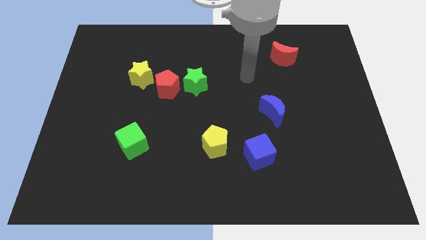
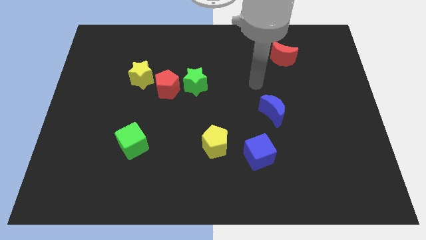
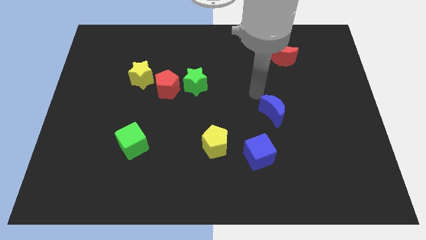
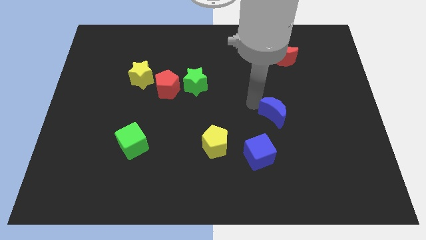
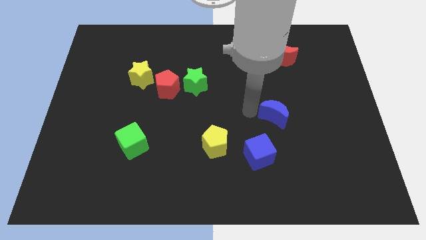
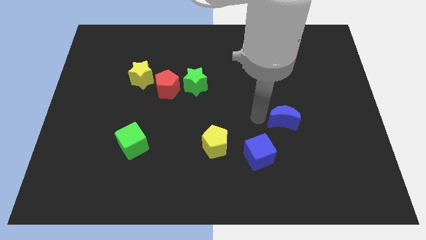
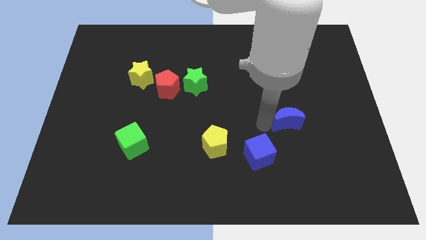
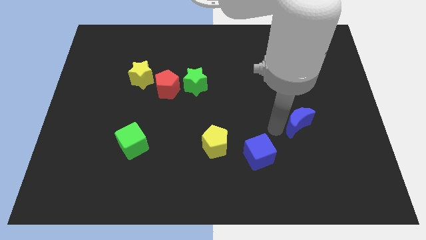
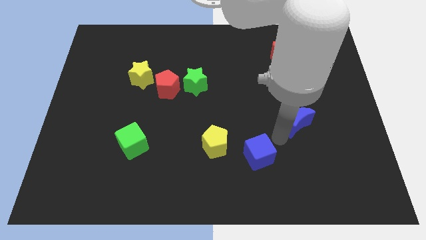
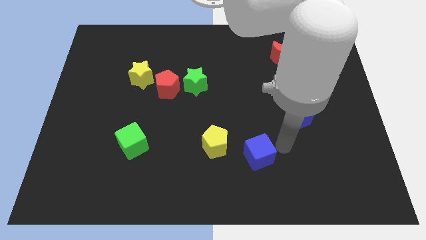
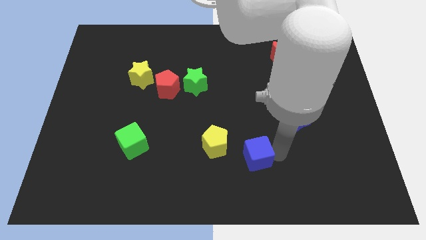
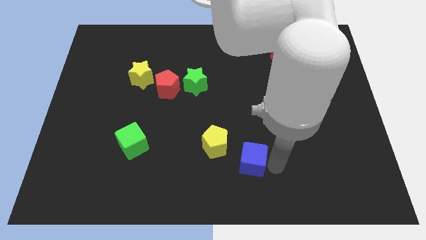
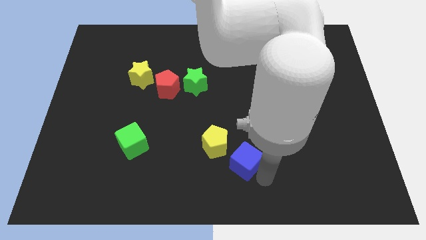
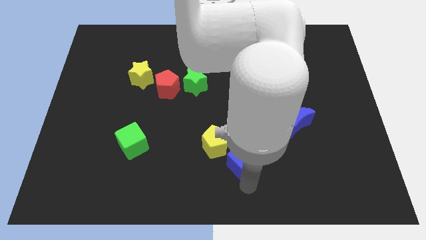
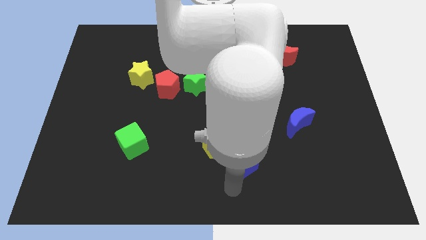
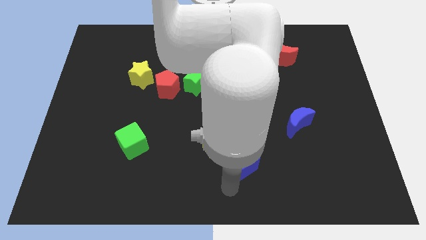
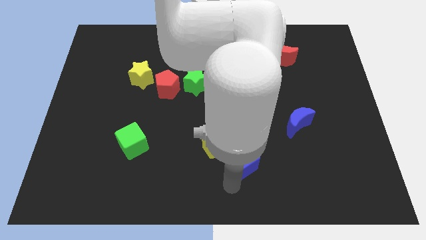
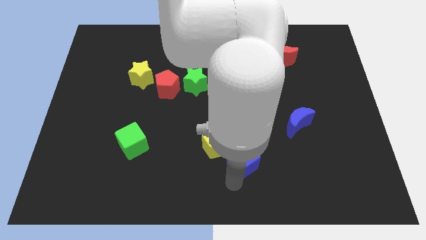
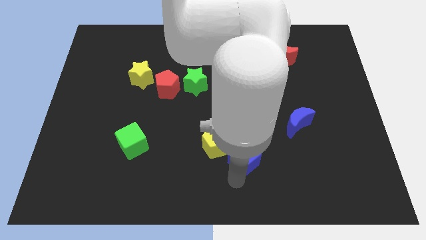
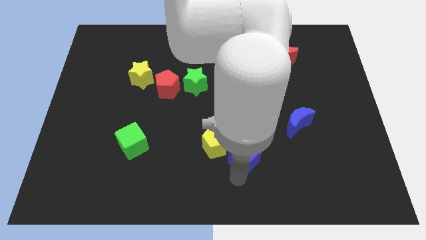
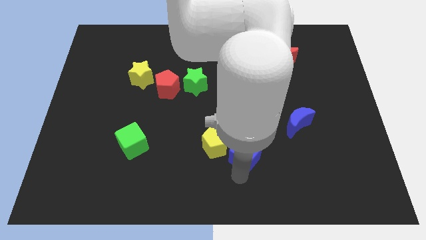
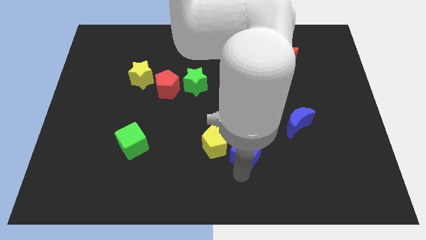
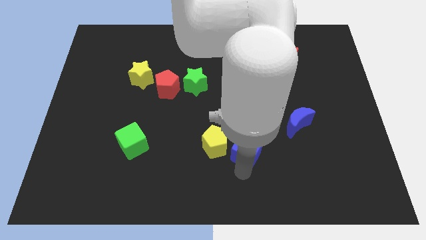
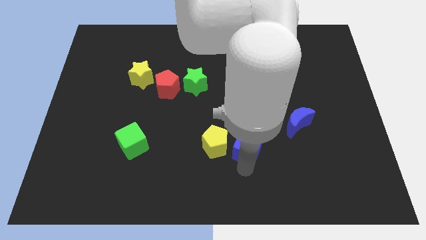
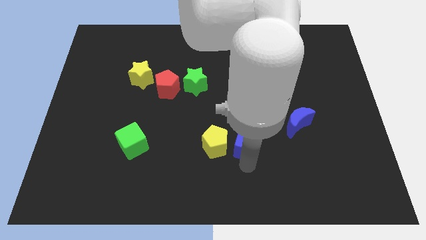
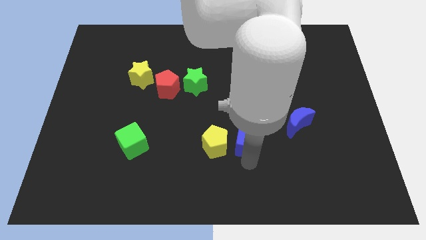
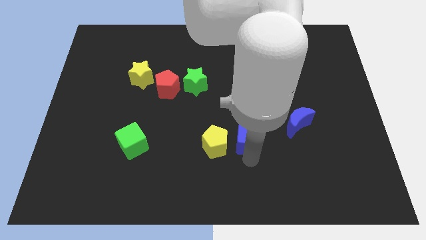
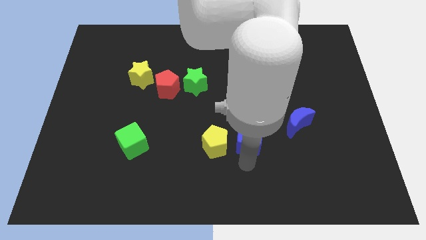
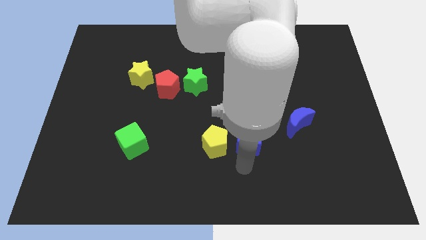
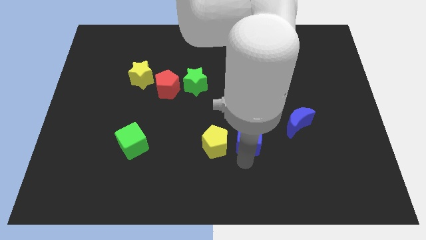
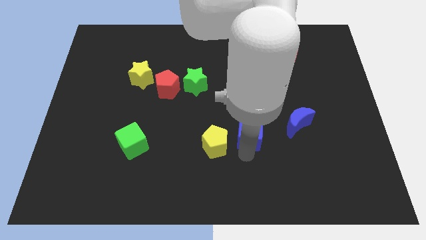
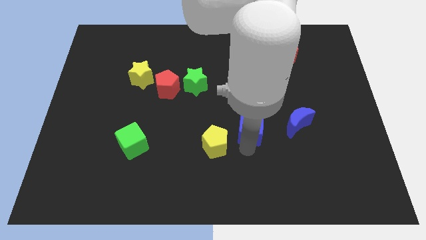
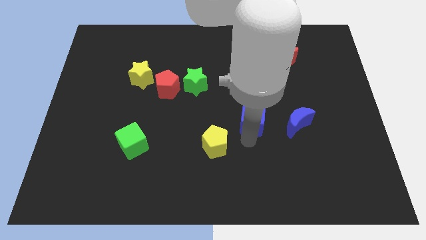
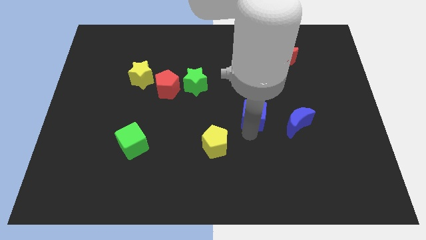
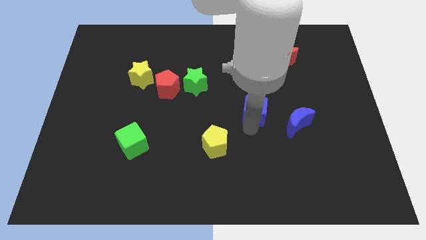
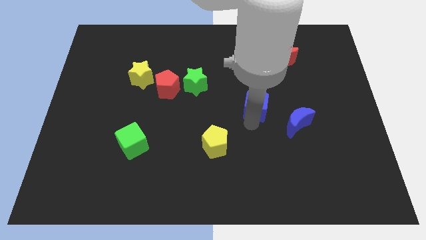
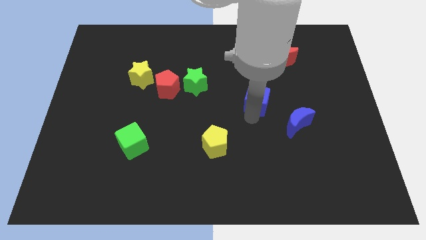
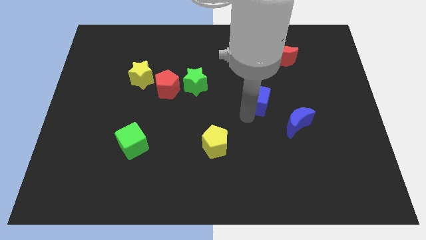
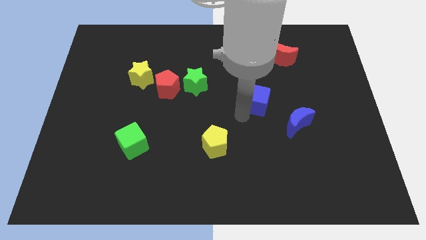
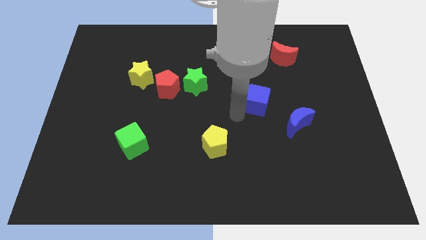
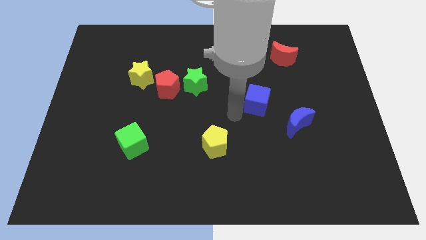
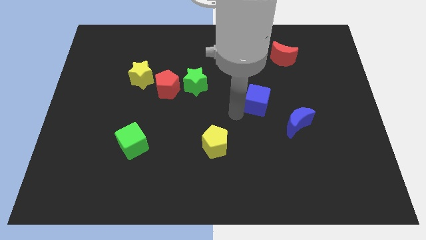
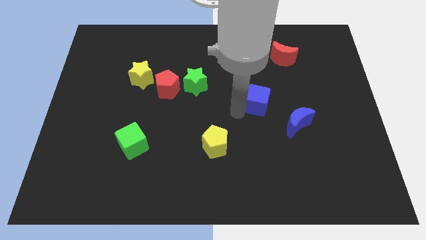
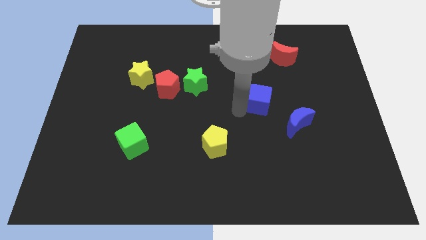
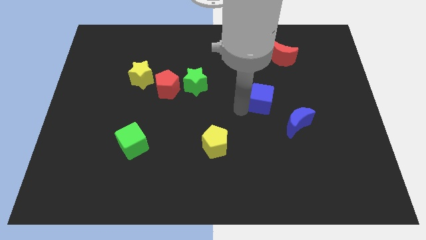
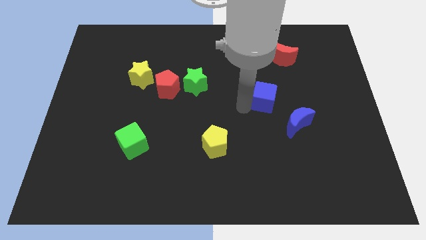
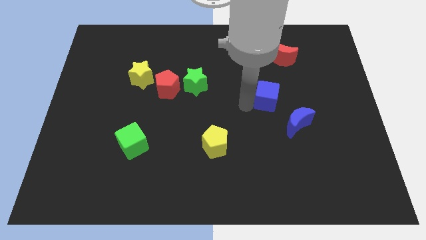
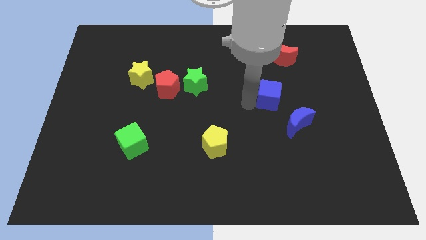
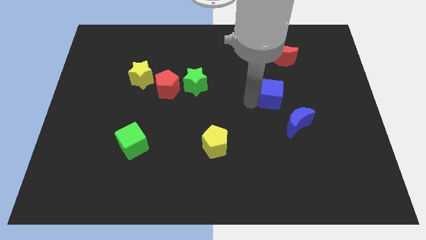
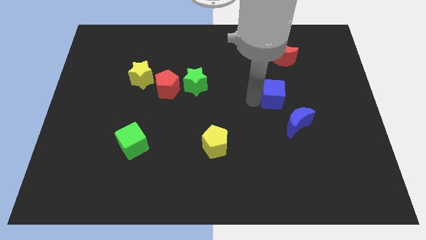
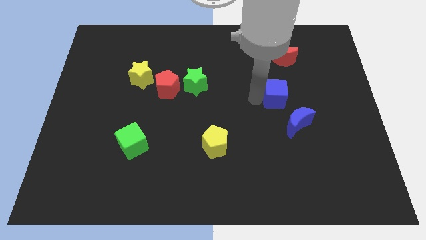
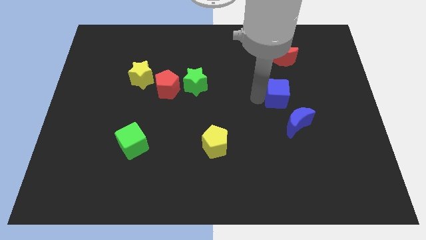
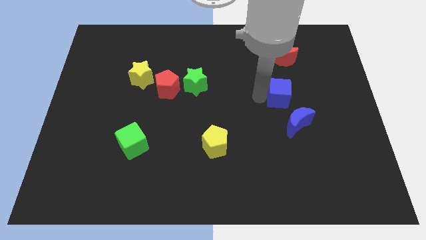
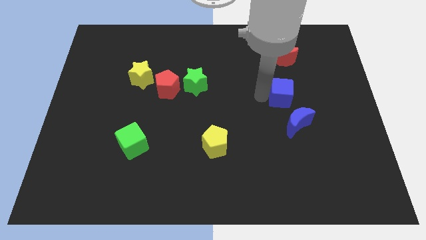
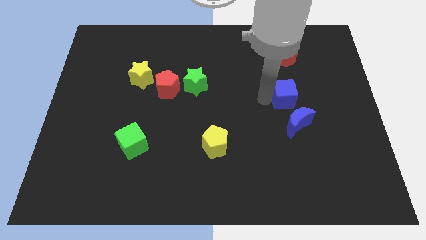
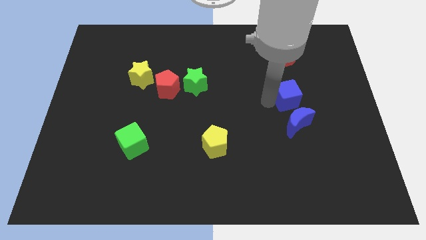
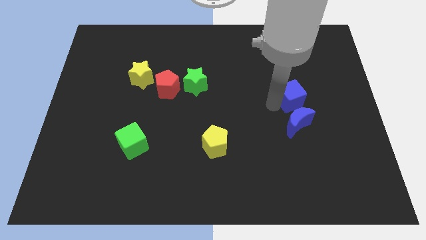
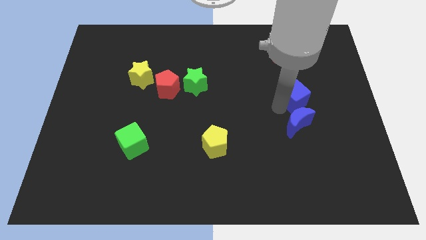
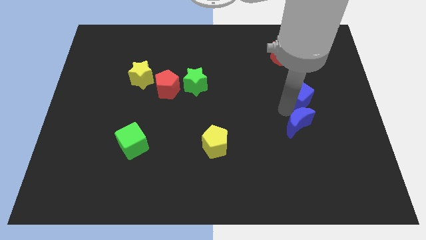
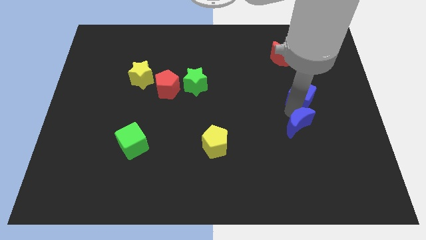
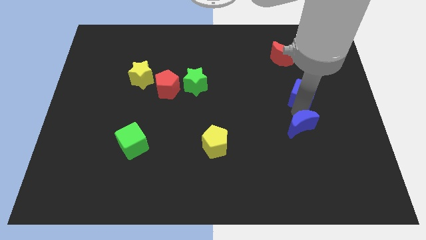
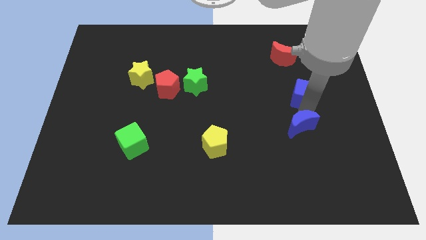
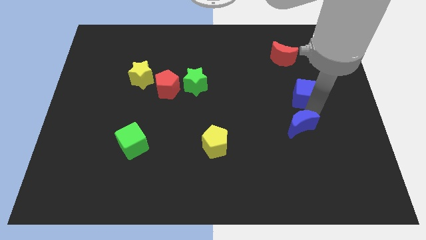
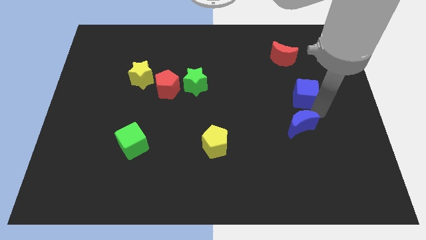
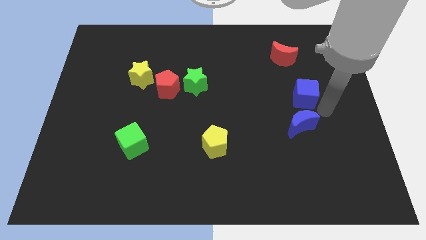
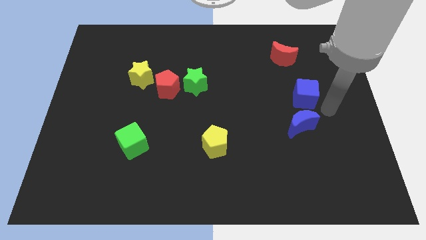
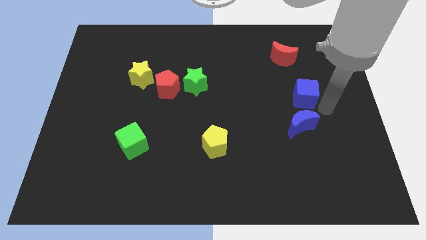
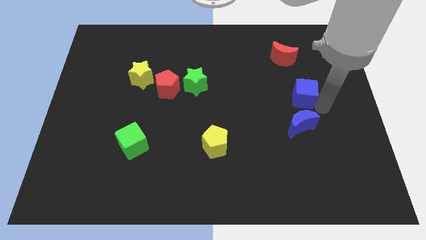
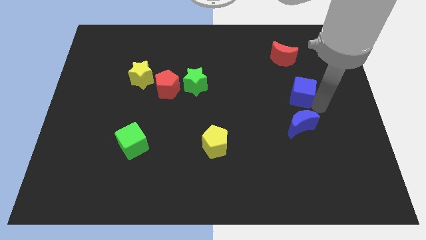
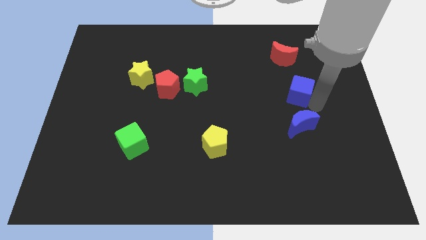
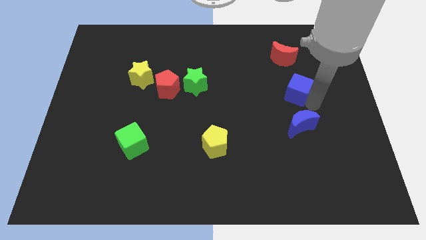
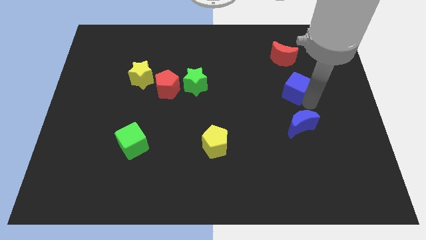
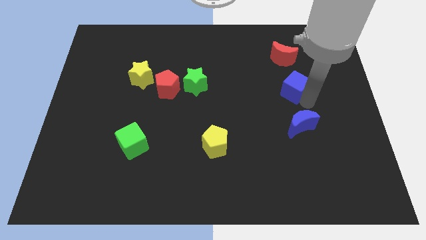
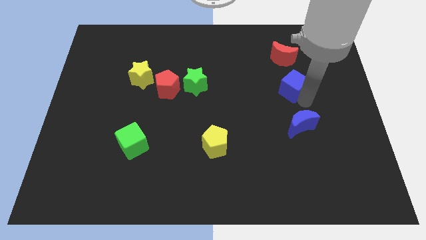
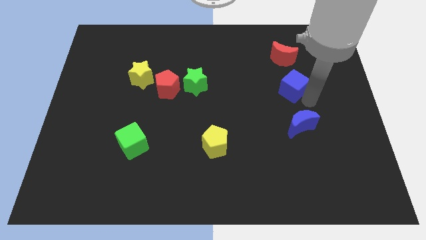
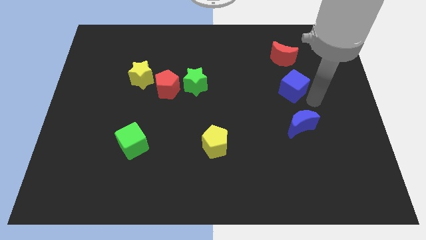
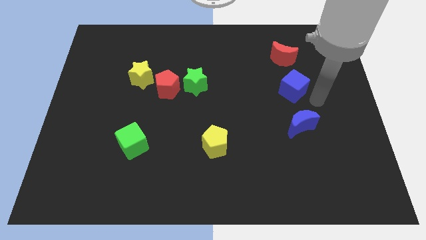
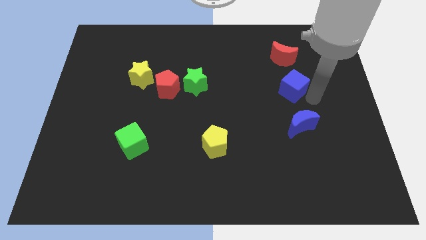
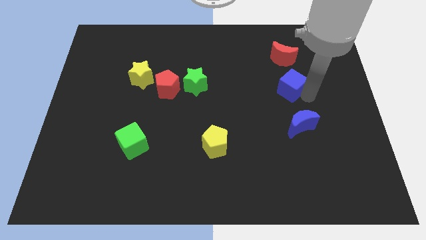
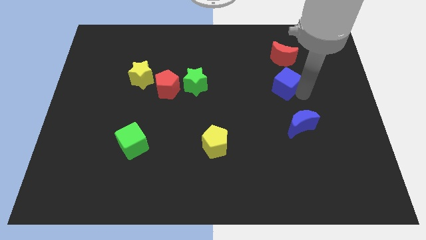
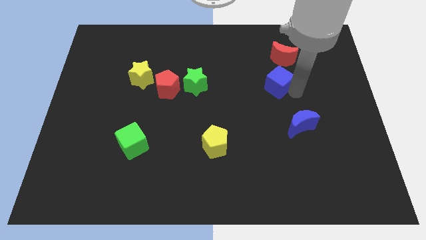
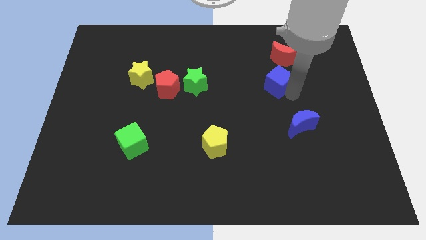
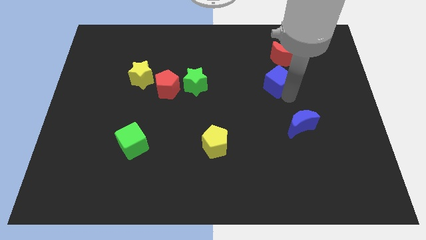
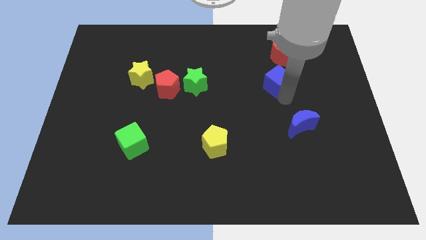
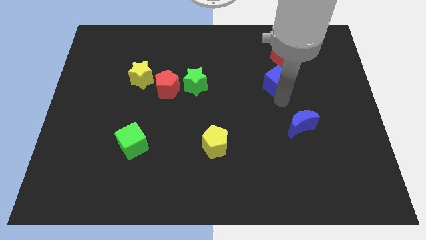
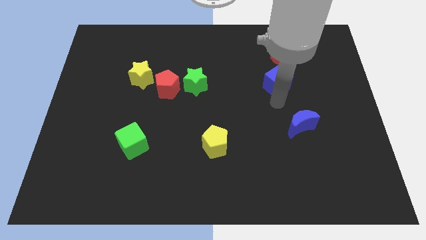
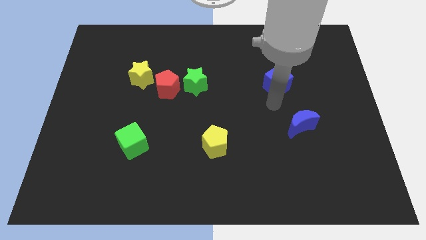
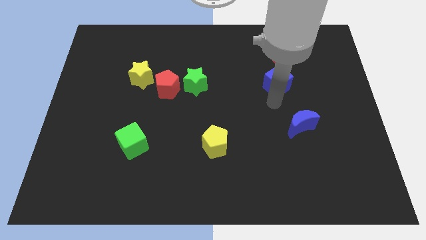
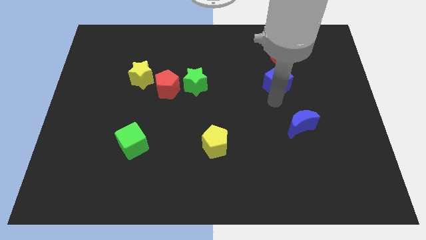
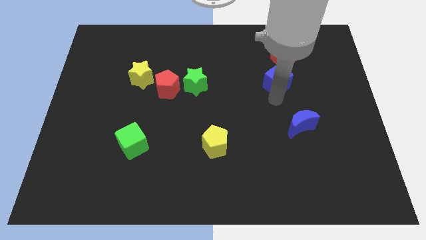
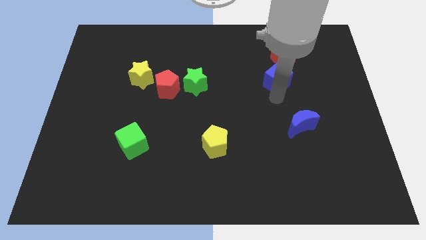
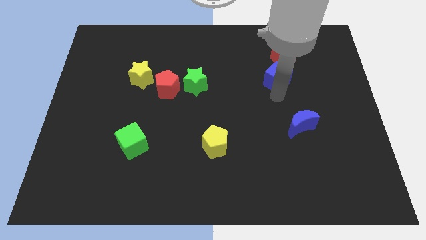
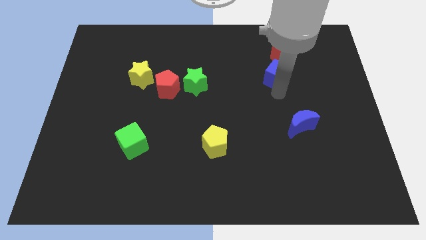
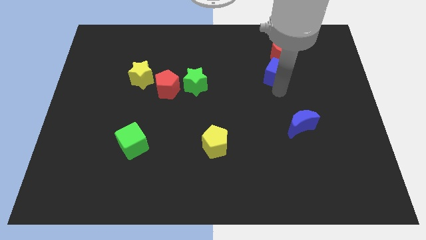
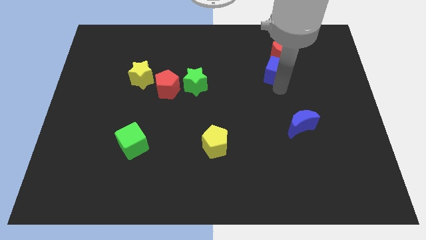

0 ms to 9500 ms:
push the blue cube next to the red moon
